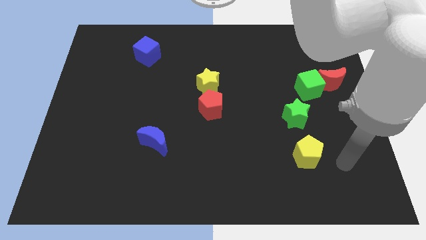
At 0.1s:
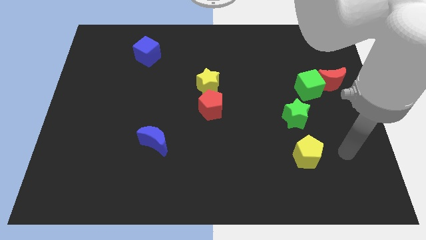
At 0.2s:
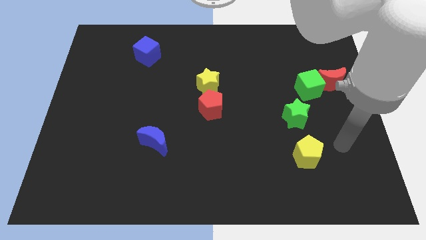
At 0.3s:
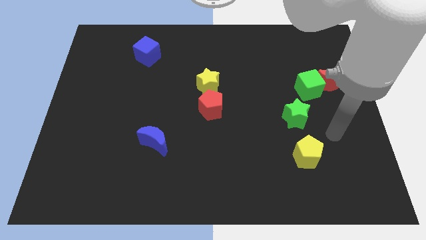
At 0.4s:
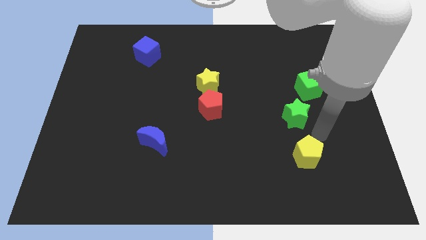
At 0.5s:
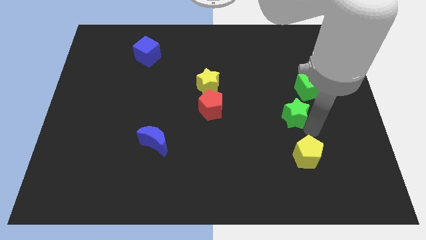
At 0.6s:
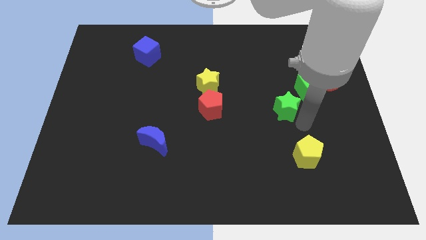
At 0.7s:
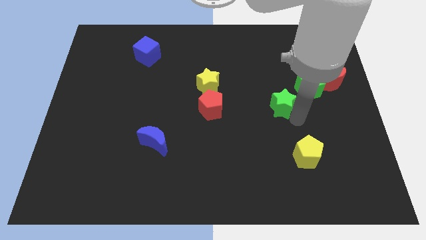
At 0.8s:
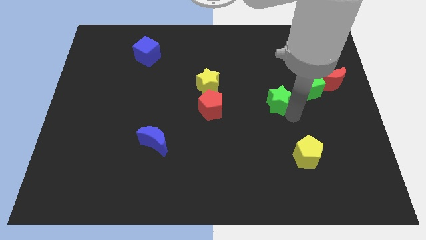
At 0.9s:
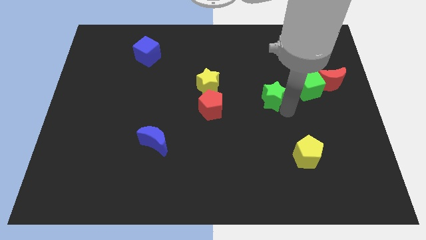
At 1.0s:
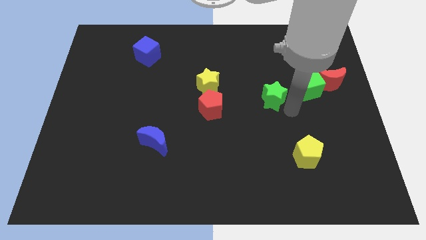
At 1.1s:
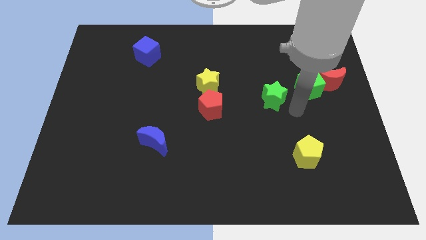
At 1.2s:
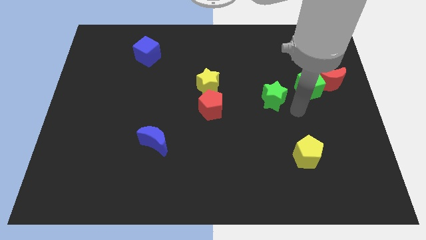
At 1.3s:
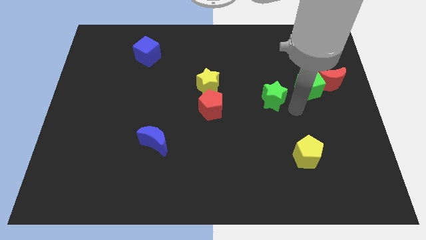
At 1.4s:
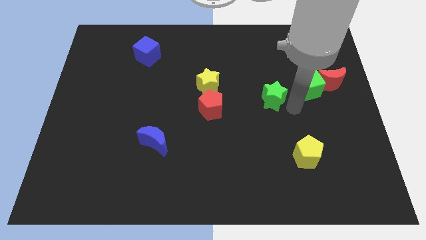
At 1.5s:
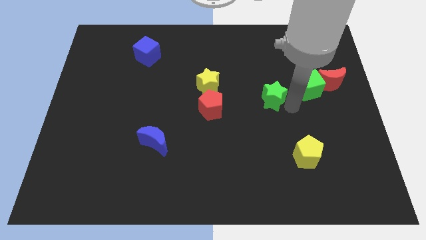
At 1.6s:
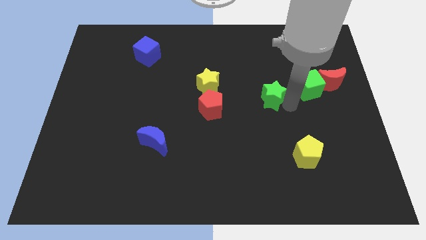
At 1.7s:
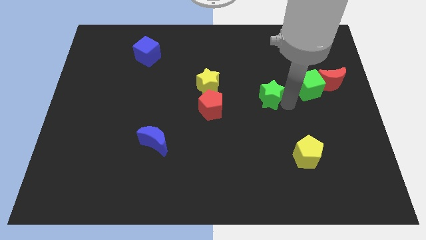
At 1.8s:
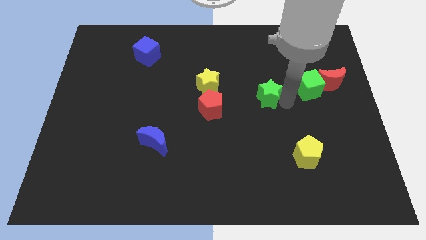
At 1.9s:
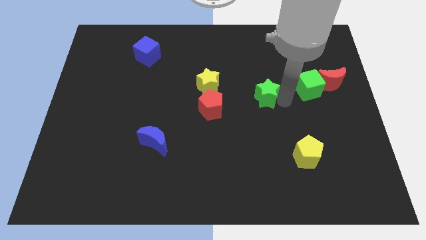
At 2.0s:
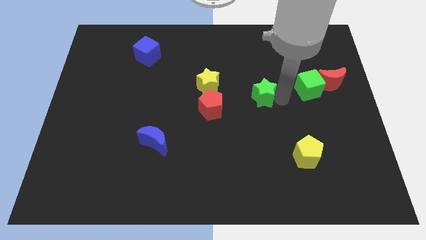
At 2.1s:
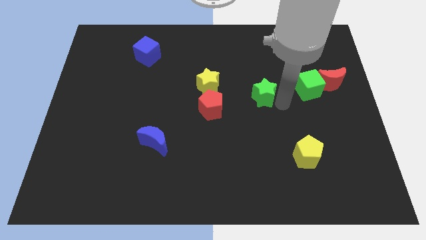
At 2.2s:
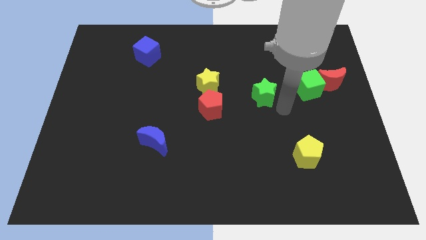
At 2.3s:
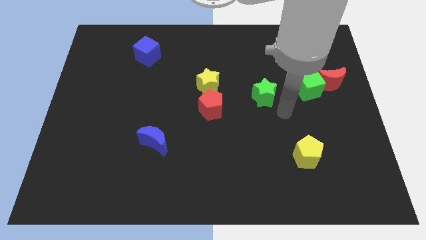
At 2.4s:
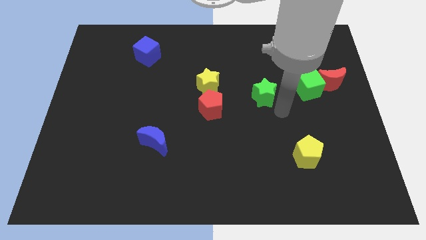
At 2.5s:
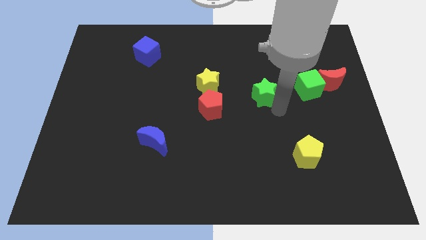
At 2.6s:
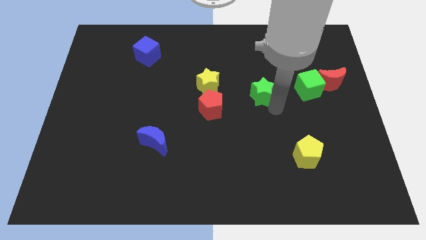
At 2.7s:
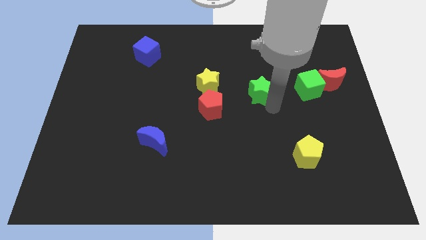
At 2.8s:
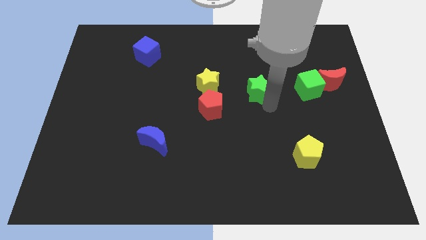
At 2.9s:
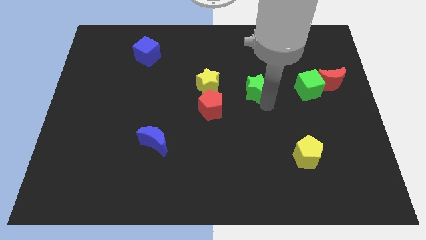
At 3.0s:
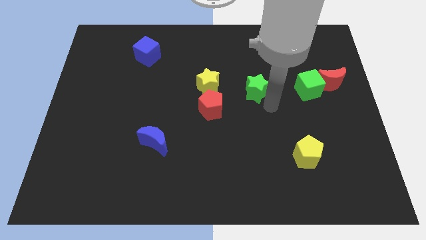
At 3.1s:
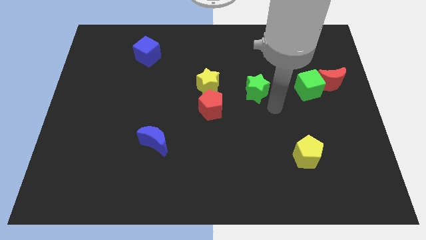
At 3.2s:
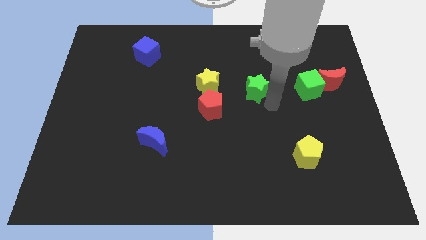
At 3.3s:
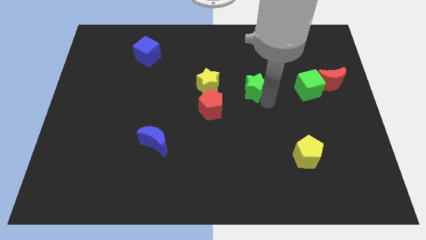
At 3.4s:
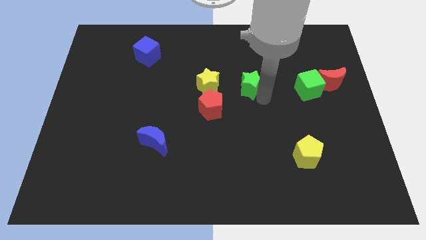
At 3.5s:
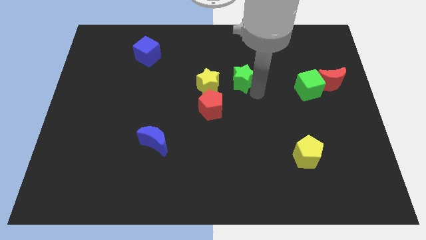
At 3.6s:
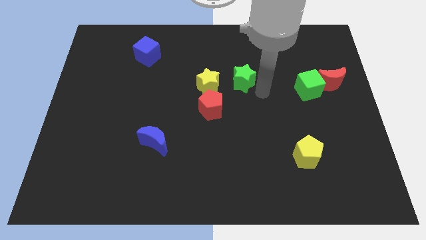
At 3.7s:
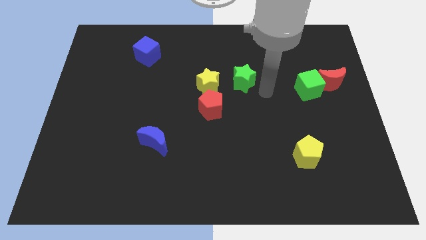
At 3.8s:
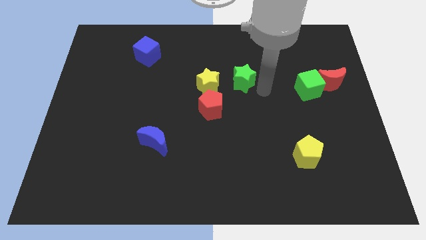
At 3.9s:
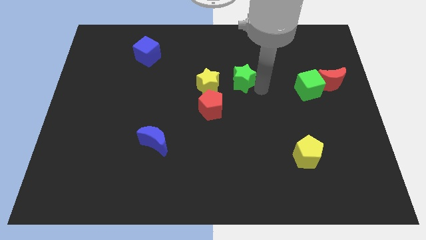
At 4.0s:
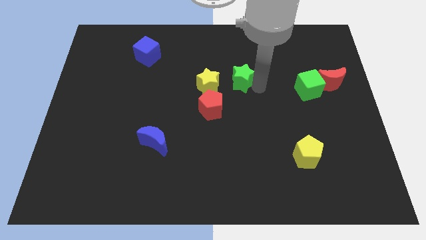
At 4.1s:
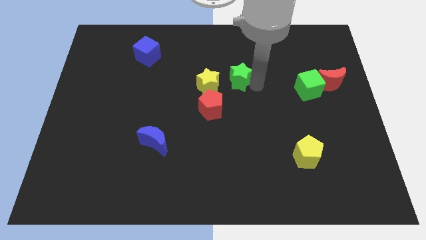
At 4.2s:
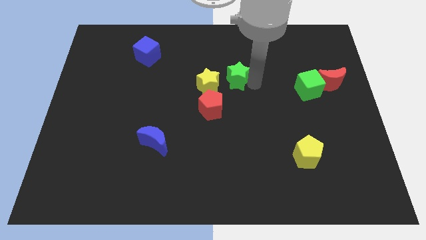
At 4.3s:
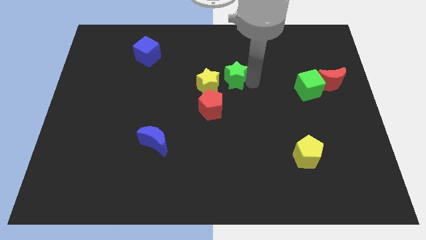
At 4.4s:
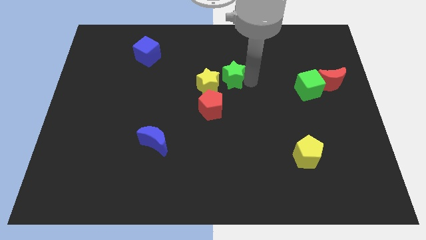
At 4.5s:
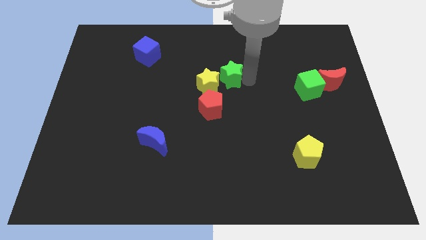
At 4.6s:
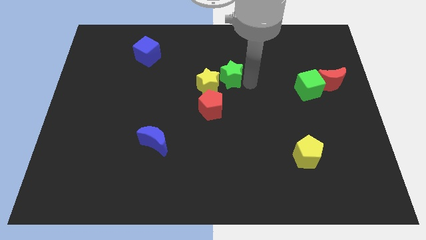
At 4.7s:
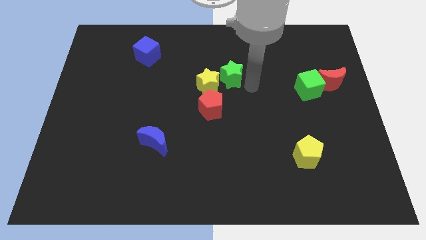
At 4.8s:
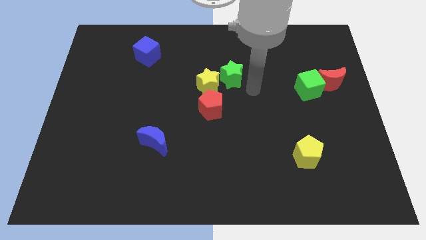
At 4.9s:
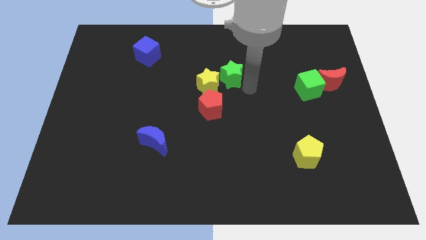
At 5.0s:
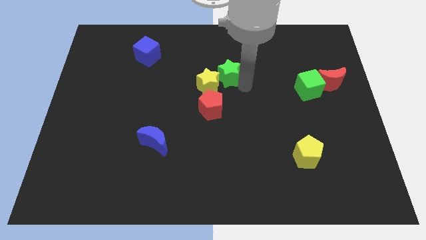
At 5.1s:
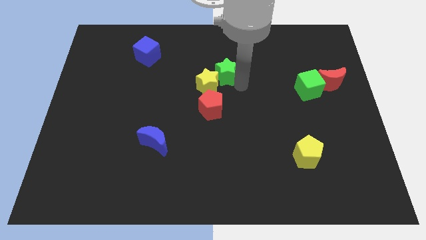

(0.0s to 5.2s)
put the green star to the top side of the yellow star

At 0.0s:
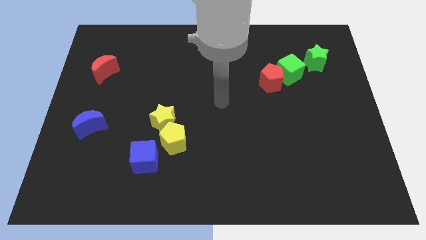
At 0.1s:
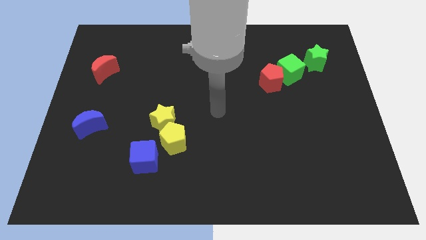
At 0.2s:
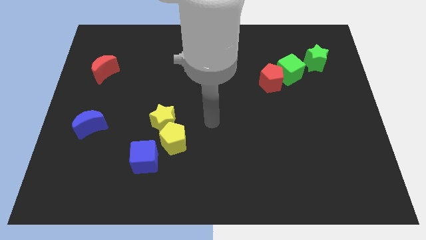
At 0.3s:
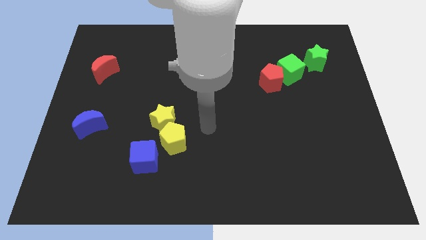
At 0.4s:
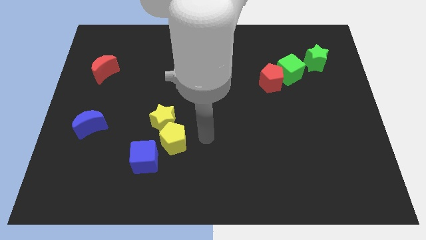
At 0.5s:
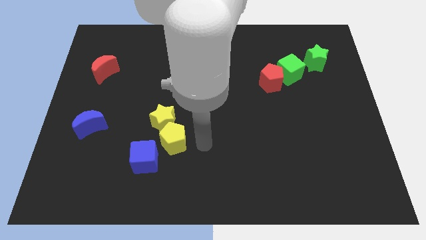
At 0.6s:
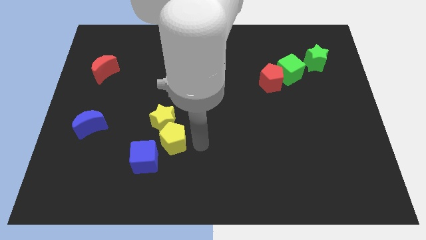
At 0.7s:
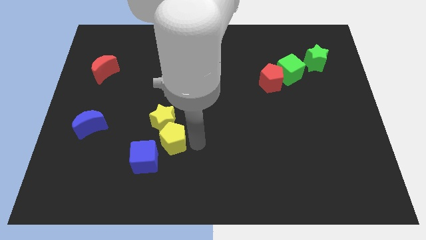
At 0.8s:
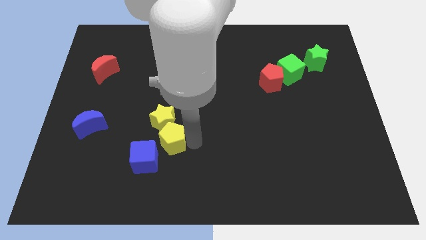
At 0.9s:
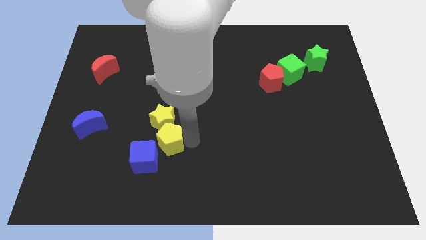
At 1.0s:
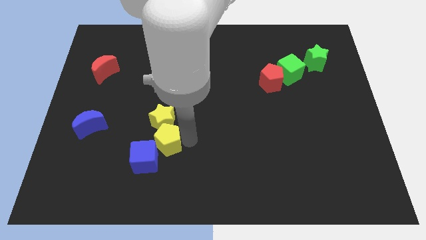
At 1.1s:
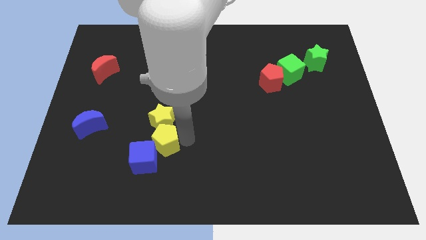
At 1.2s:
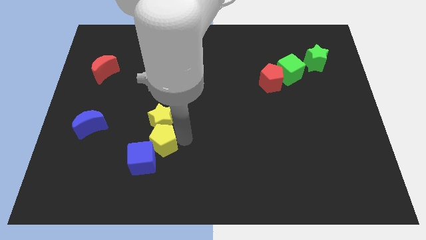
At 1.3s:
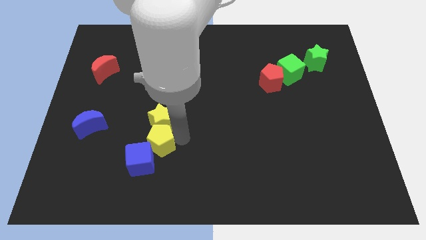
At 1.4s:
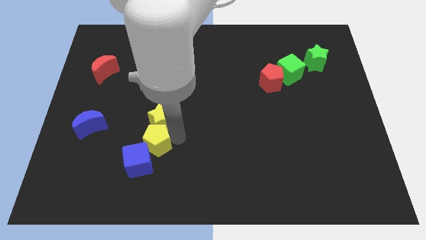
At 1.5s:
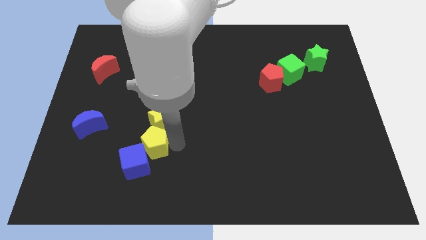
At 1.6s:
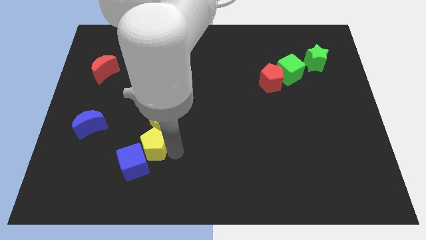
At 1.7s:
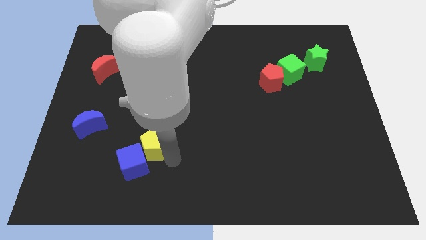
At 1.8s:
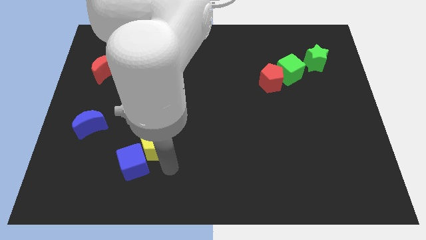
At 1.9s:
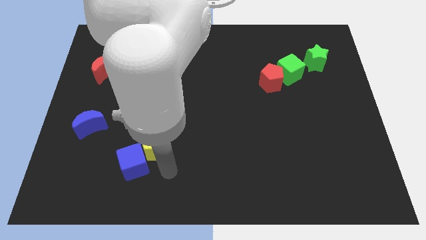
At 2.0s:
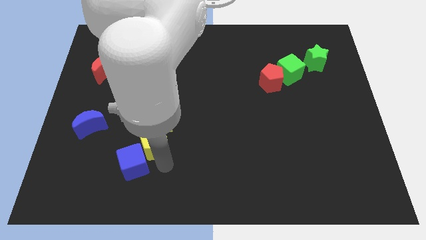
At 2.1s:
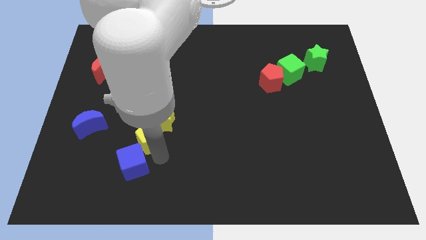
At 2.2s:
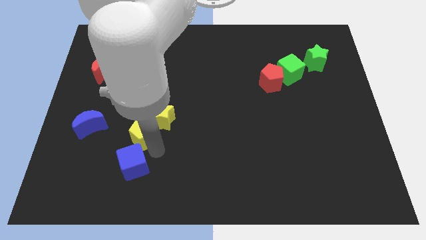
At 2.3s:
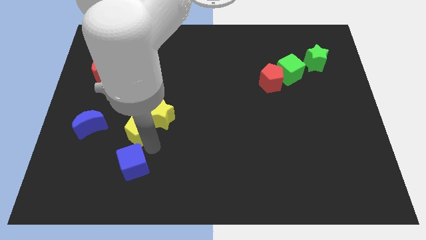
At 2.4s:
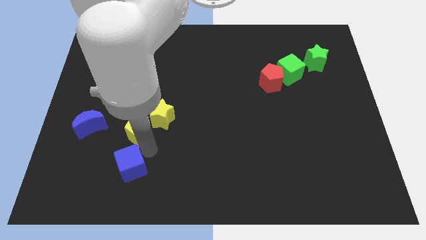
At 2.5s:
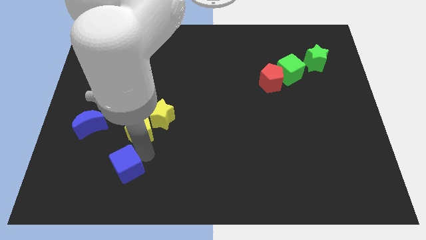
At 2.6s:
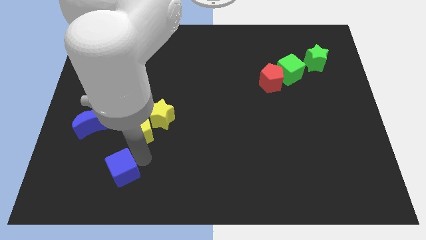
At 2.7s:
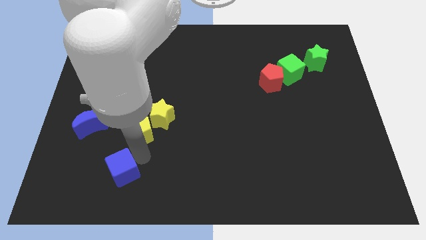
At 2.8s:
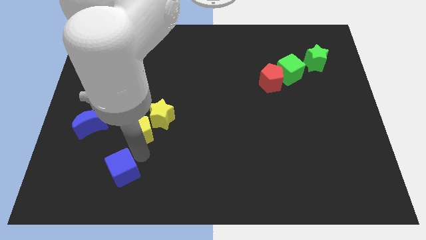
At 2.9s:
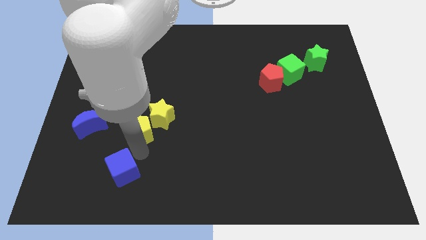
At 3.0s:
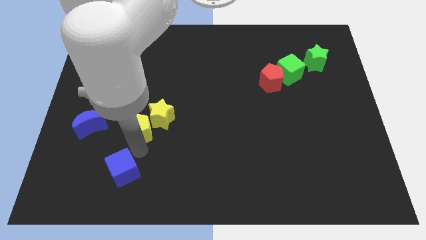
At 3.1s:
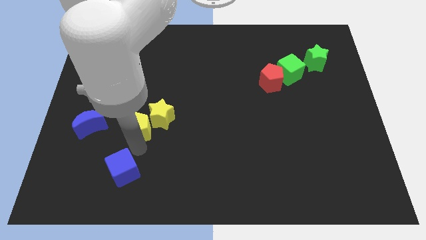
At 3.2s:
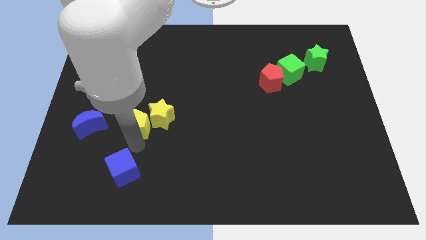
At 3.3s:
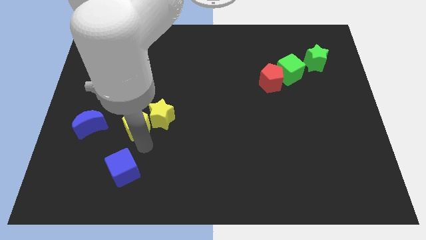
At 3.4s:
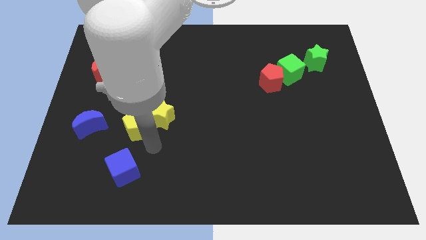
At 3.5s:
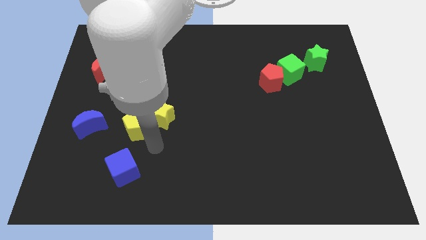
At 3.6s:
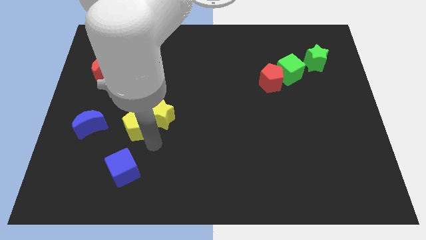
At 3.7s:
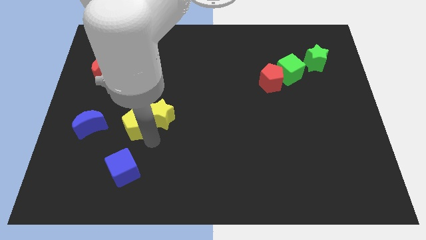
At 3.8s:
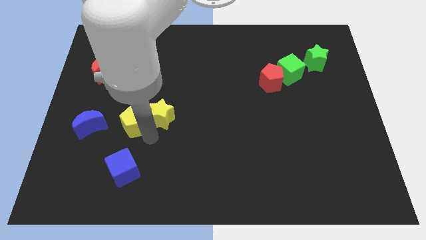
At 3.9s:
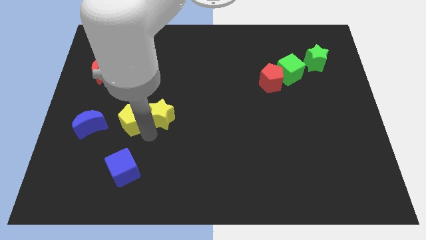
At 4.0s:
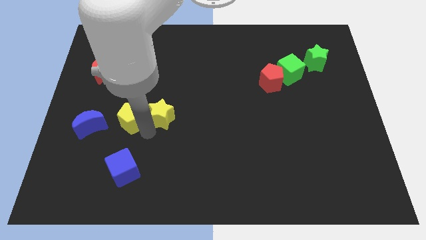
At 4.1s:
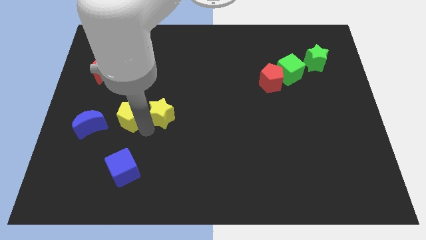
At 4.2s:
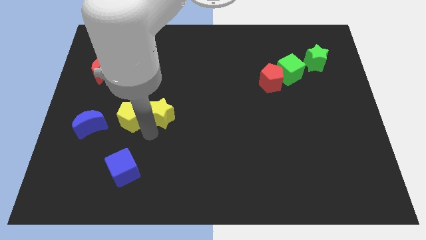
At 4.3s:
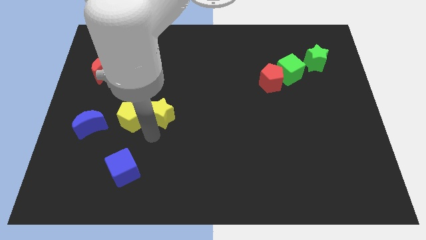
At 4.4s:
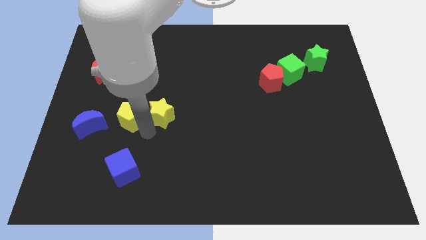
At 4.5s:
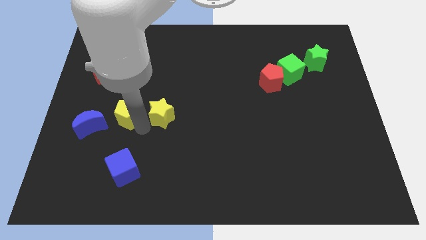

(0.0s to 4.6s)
put the yellow pentagon to the top right side of the blue moon
